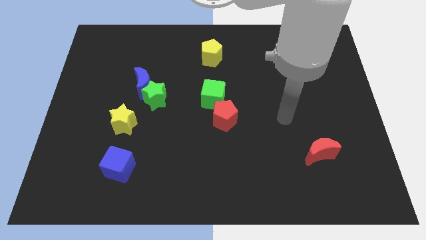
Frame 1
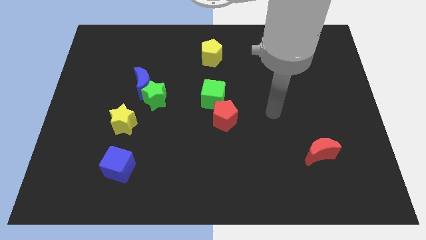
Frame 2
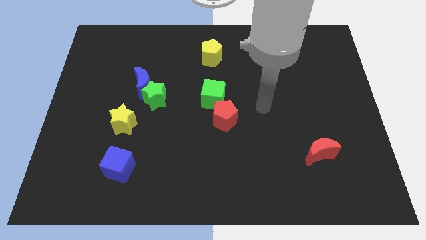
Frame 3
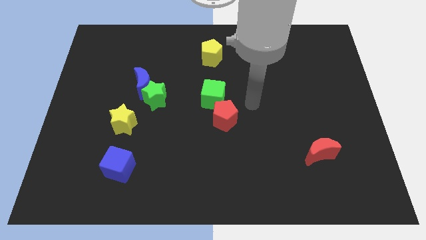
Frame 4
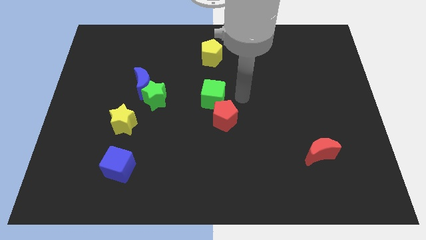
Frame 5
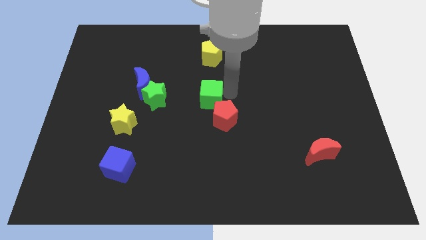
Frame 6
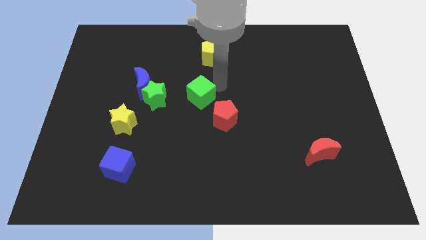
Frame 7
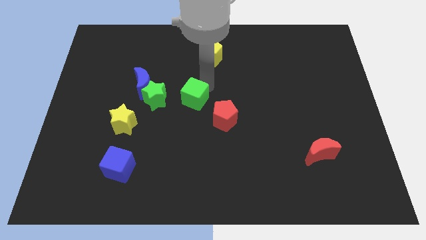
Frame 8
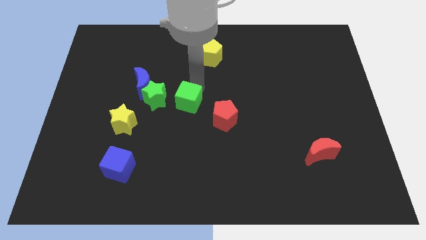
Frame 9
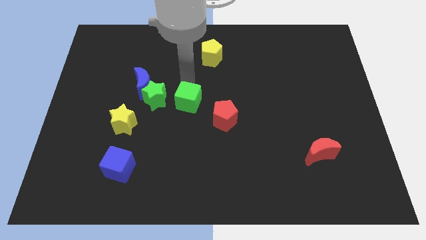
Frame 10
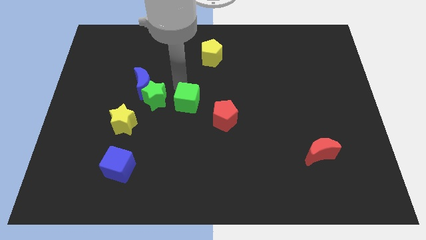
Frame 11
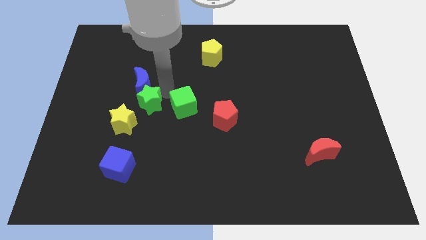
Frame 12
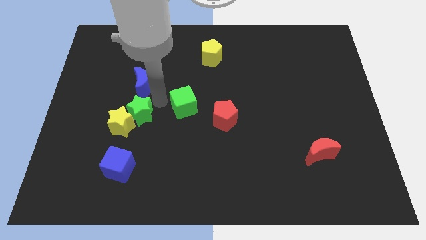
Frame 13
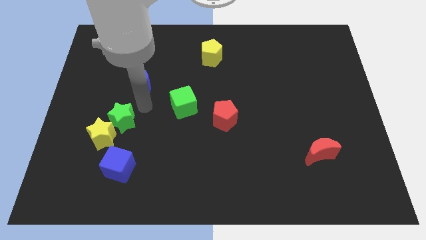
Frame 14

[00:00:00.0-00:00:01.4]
separate the blue moon from the green star

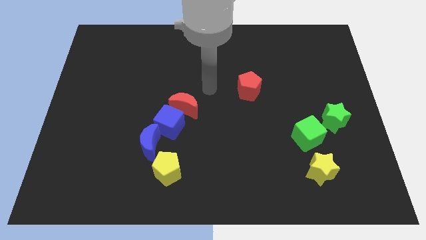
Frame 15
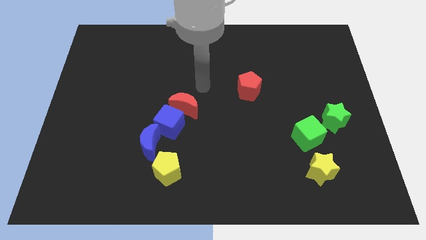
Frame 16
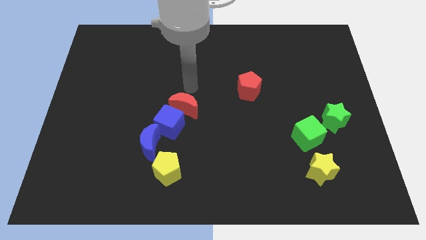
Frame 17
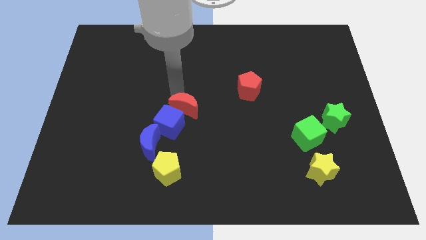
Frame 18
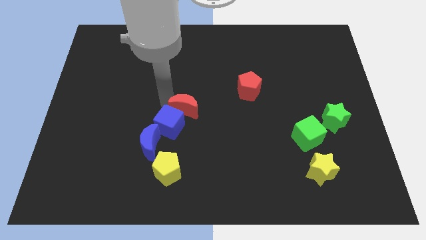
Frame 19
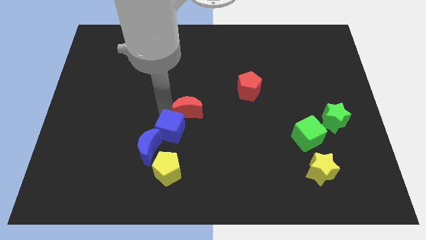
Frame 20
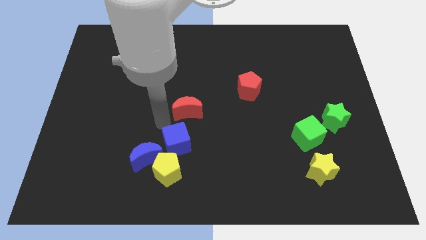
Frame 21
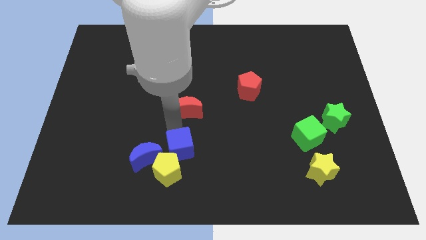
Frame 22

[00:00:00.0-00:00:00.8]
separate the red moon from the blue cube

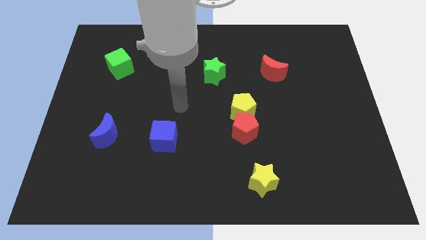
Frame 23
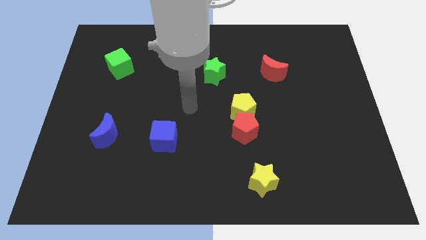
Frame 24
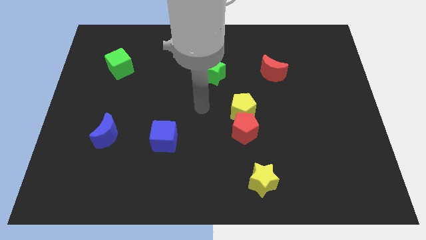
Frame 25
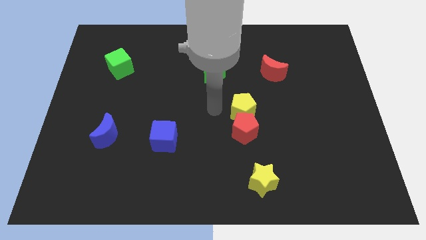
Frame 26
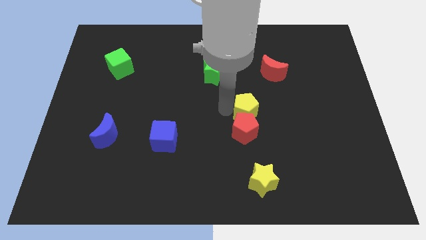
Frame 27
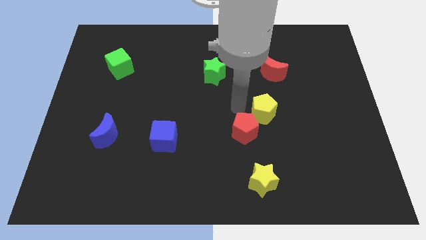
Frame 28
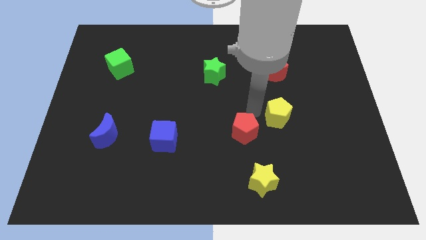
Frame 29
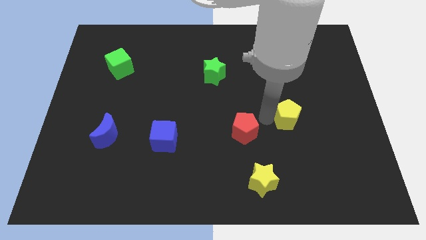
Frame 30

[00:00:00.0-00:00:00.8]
move the red pentagon away from the yellow pentagon

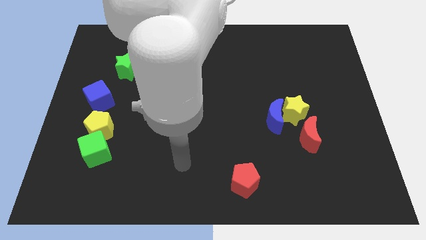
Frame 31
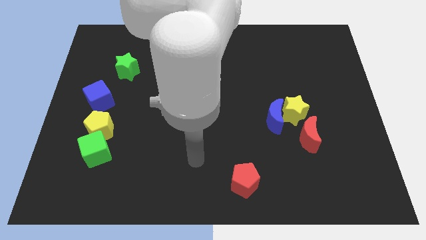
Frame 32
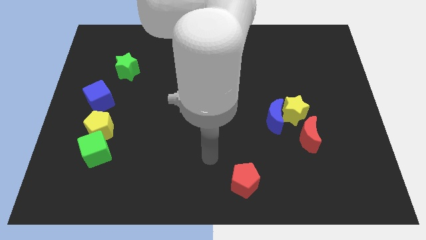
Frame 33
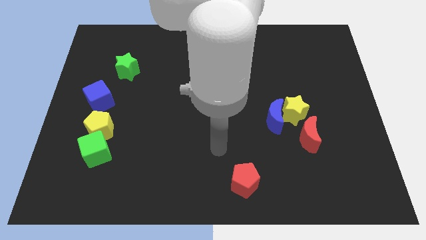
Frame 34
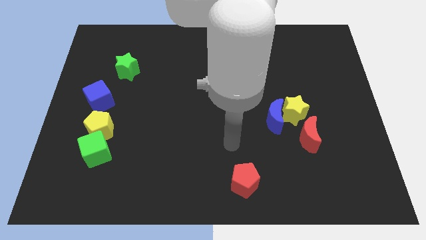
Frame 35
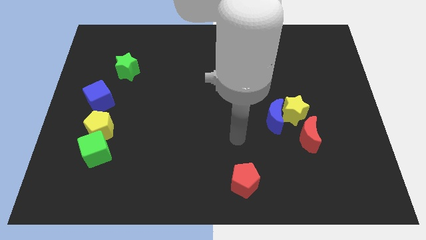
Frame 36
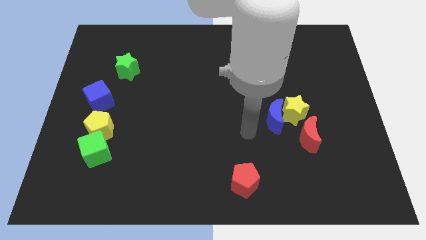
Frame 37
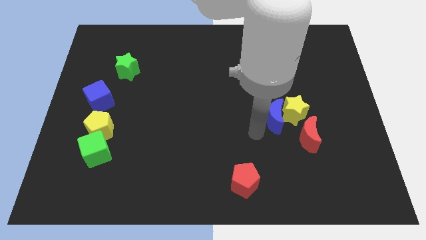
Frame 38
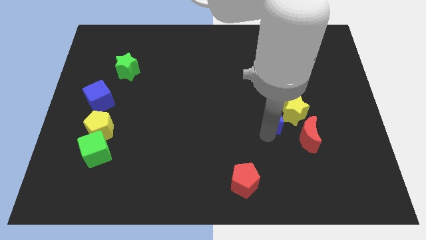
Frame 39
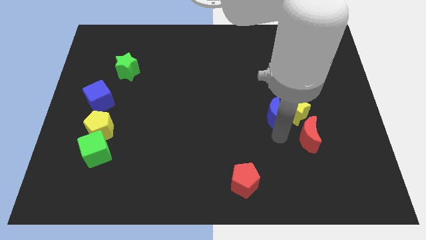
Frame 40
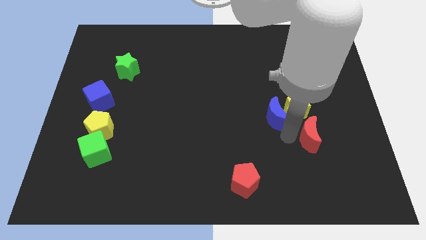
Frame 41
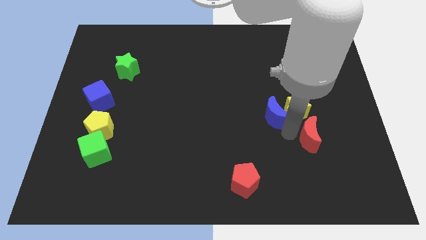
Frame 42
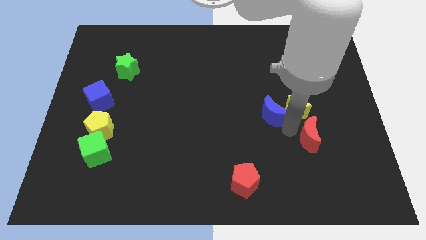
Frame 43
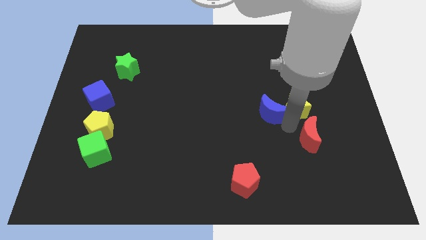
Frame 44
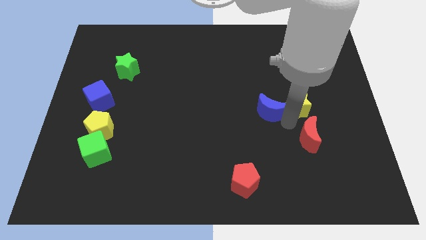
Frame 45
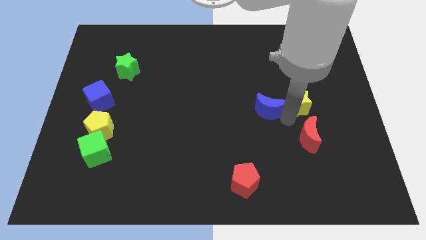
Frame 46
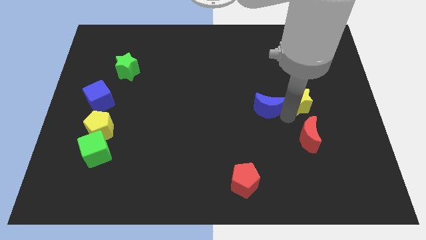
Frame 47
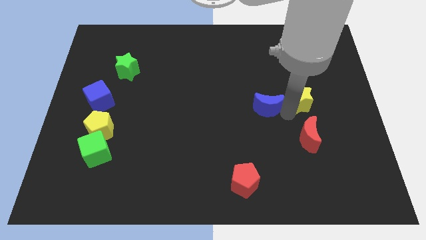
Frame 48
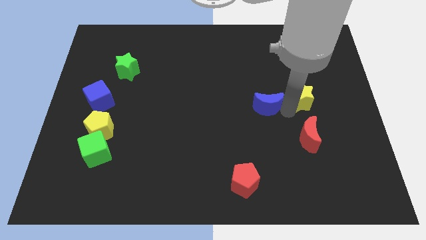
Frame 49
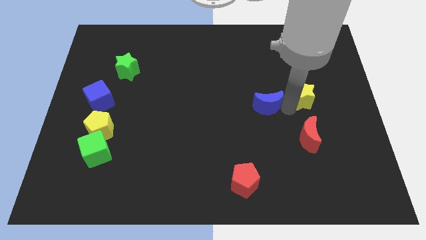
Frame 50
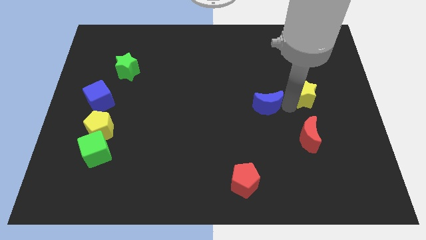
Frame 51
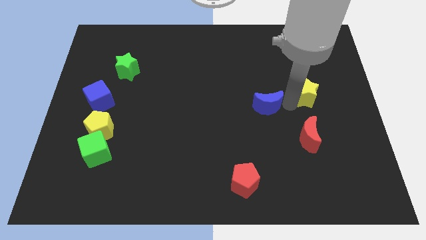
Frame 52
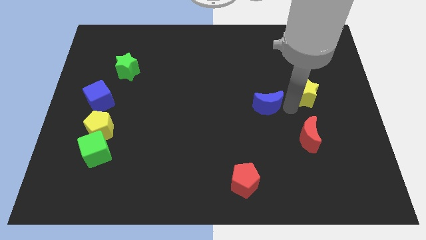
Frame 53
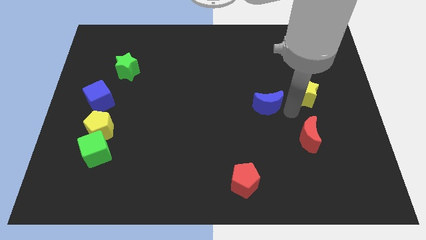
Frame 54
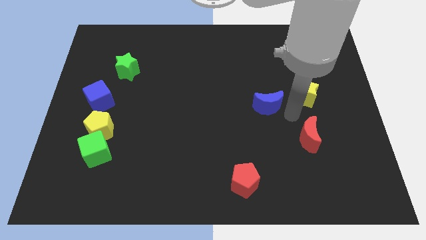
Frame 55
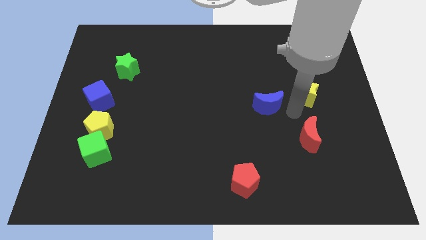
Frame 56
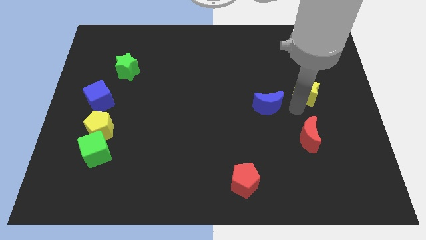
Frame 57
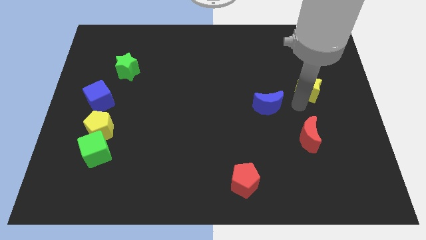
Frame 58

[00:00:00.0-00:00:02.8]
move the yellow star away from the blue moon and red moon

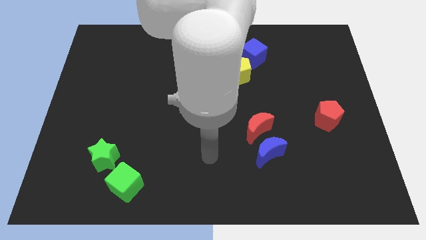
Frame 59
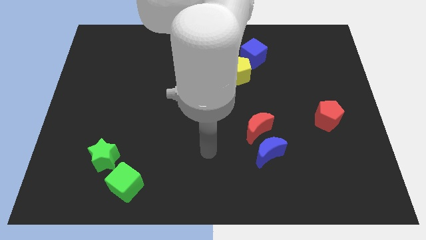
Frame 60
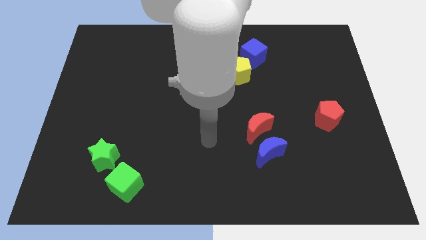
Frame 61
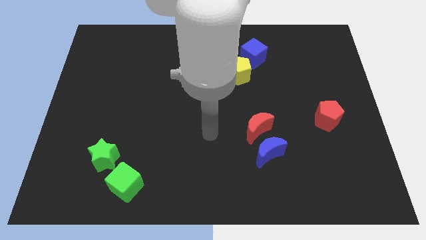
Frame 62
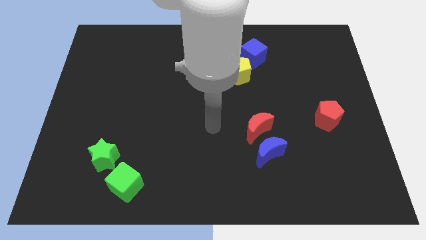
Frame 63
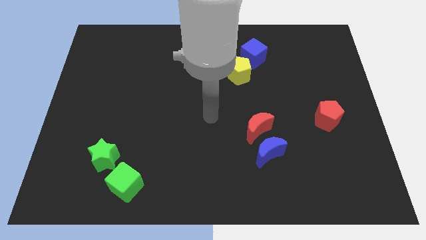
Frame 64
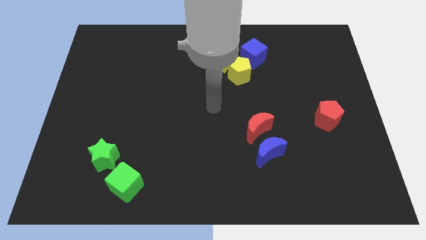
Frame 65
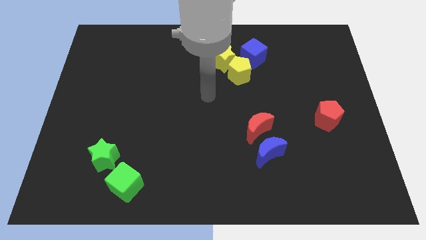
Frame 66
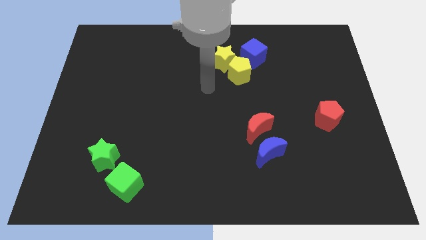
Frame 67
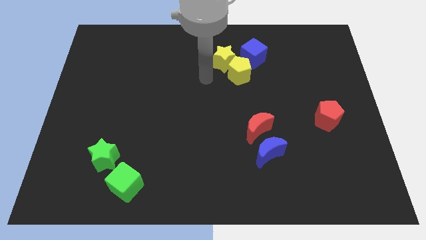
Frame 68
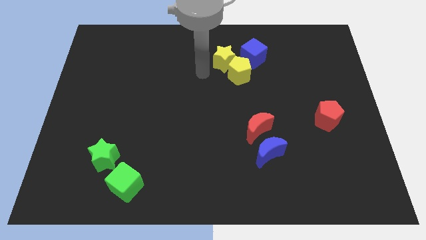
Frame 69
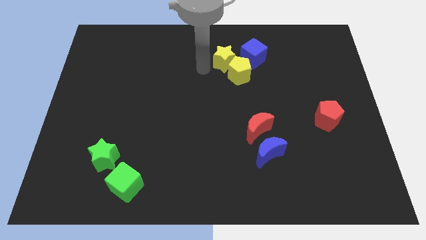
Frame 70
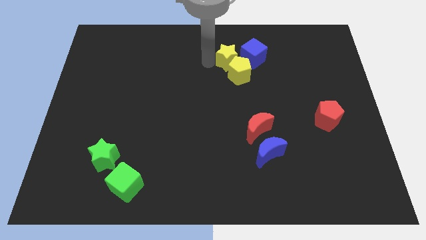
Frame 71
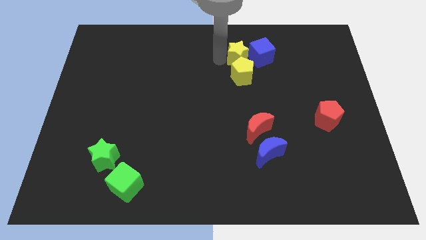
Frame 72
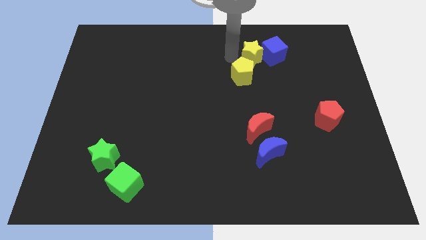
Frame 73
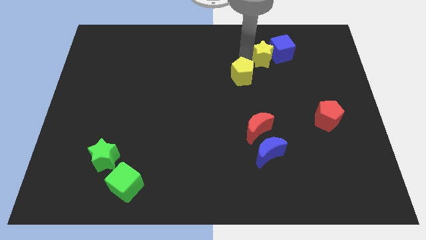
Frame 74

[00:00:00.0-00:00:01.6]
separate the yellow pentagon from the yellow star and blue cube

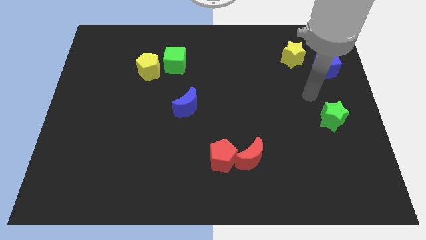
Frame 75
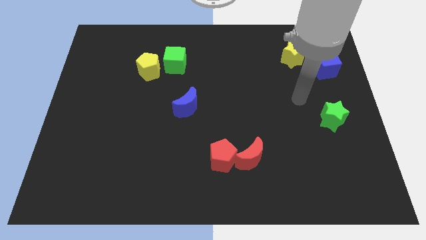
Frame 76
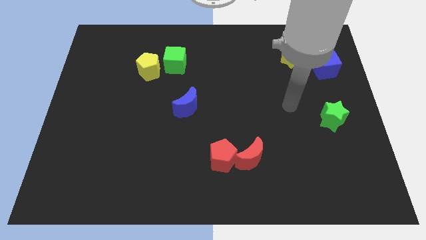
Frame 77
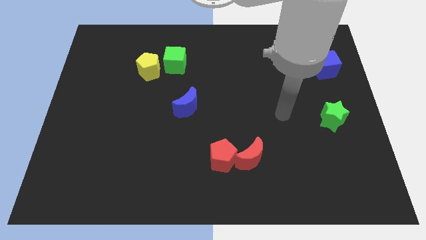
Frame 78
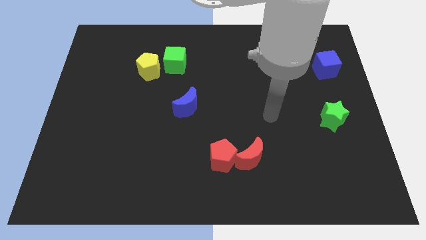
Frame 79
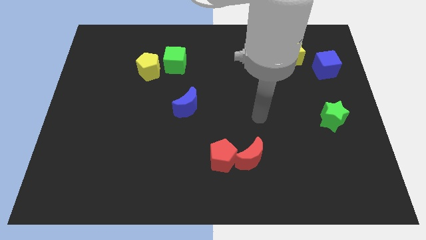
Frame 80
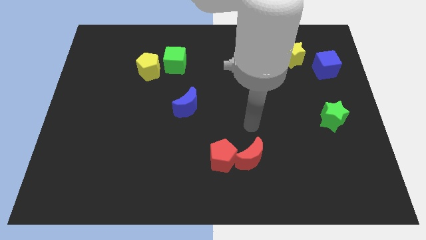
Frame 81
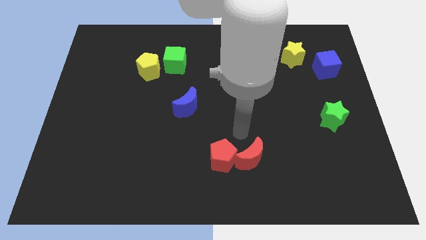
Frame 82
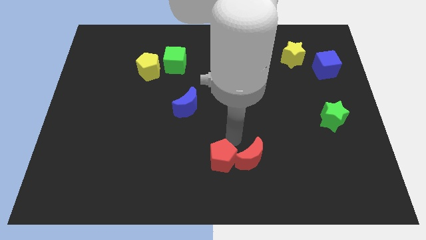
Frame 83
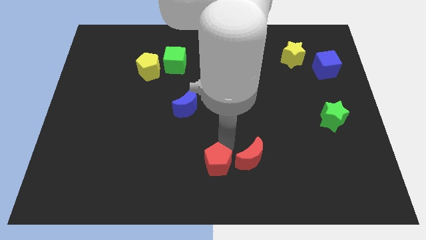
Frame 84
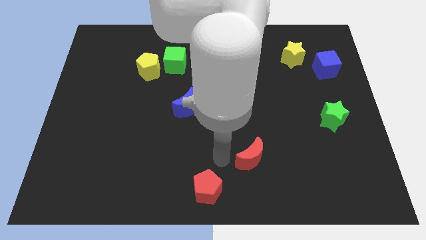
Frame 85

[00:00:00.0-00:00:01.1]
pull the red moon apart from the red pentagon

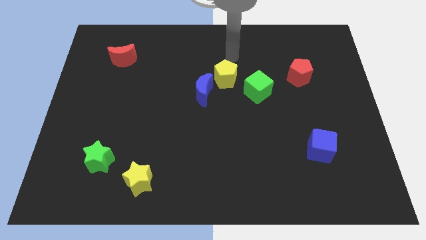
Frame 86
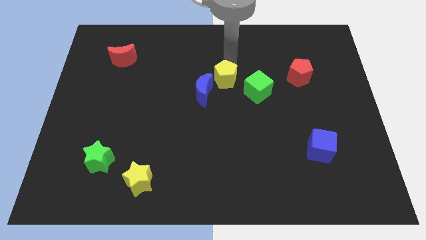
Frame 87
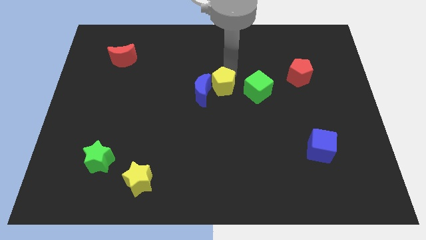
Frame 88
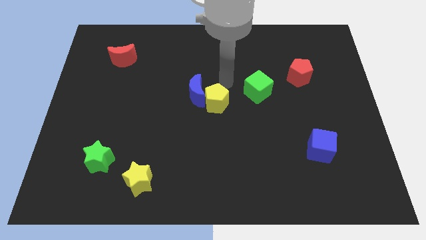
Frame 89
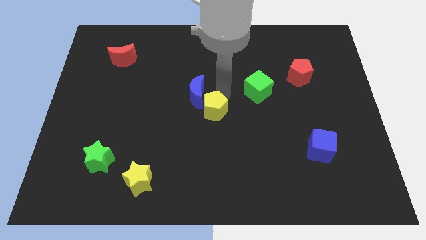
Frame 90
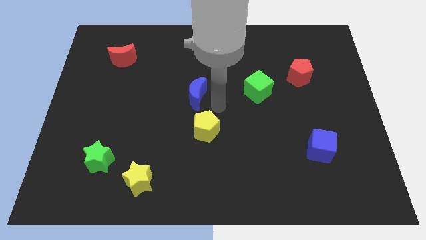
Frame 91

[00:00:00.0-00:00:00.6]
move the blue moon away from the yellow pentagon
